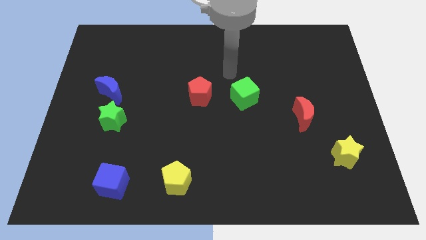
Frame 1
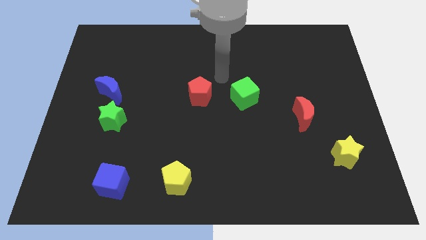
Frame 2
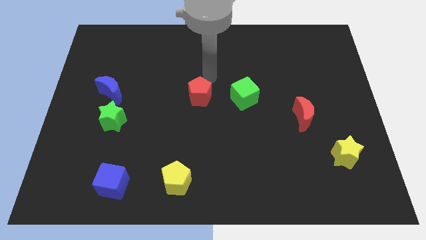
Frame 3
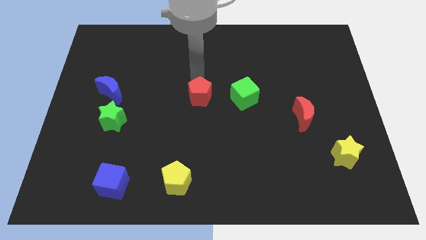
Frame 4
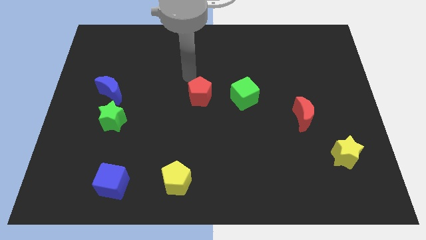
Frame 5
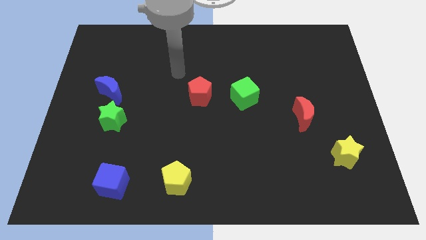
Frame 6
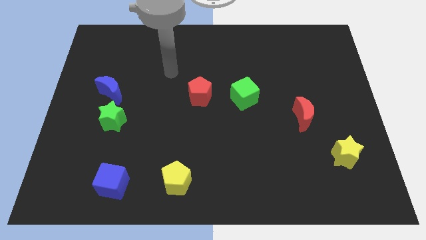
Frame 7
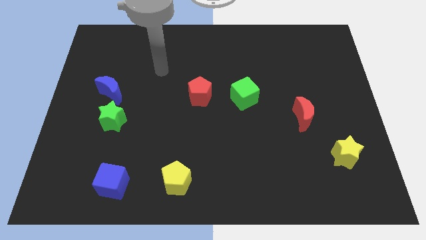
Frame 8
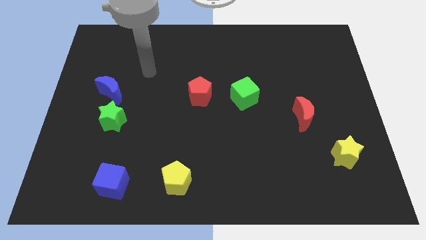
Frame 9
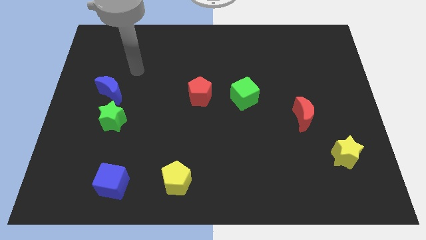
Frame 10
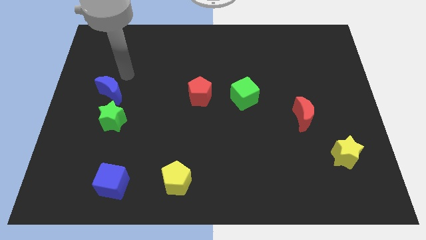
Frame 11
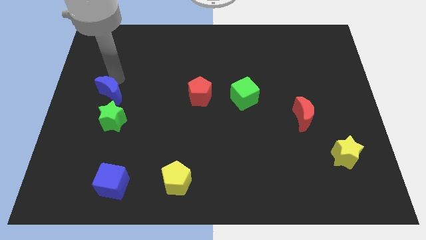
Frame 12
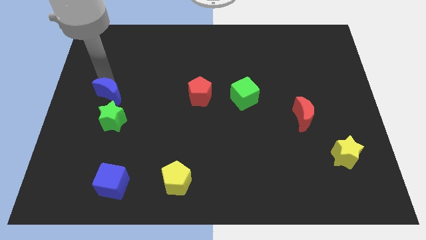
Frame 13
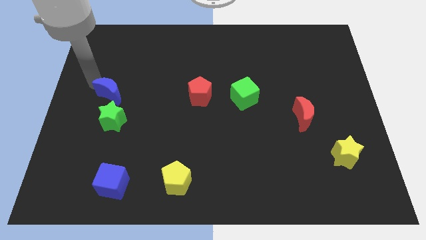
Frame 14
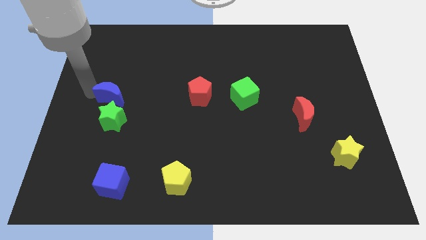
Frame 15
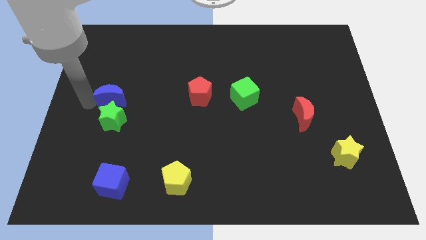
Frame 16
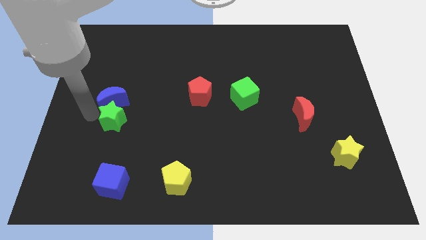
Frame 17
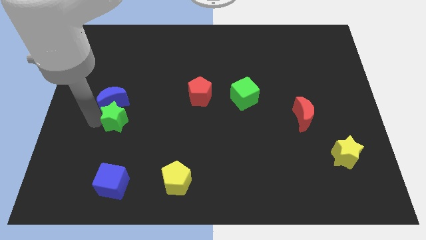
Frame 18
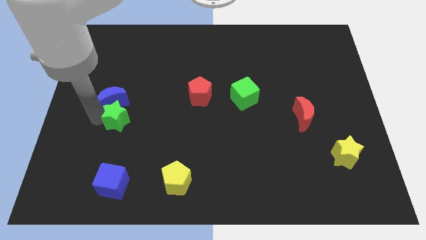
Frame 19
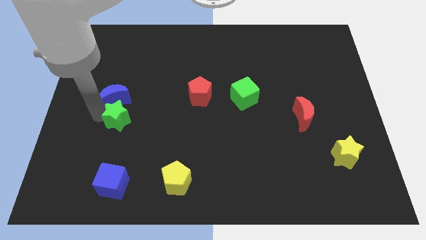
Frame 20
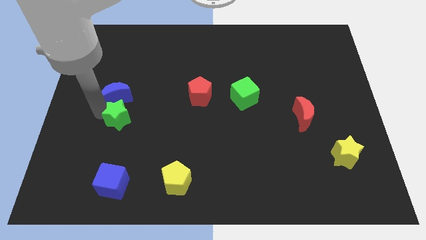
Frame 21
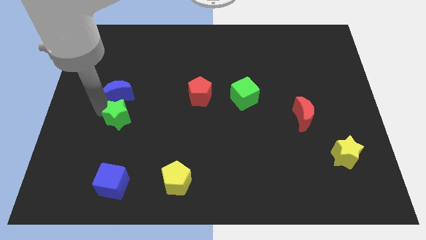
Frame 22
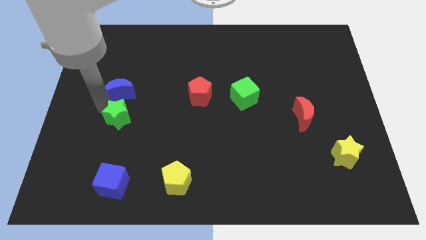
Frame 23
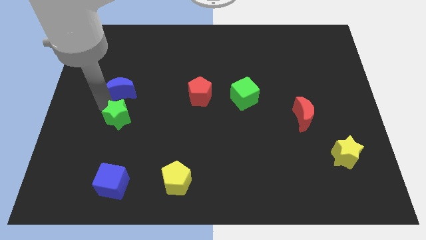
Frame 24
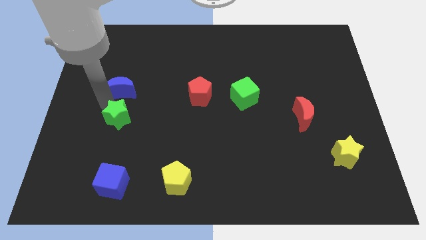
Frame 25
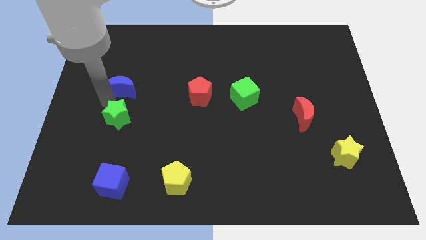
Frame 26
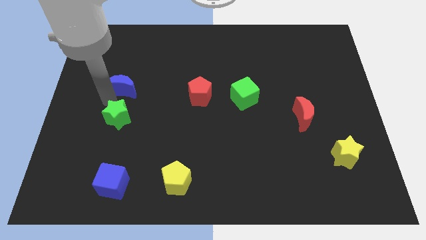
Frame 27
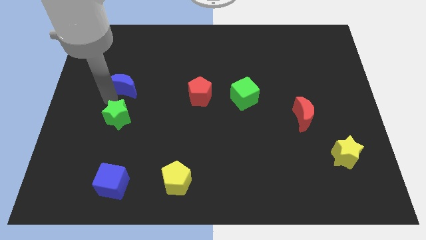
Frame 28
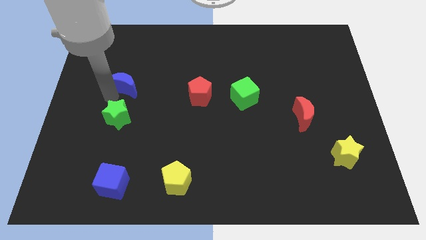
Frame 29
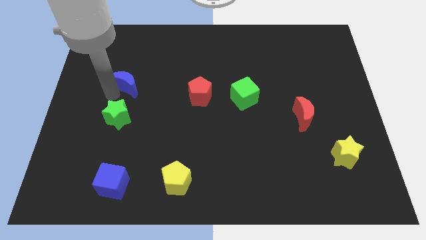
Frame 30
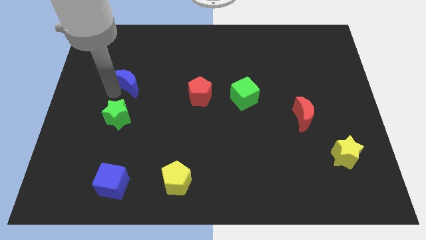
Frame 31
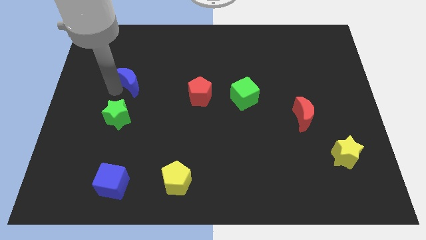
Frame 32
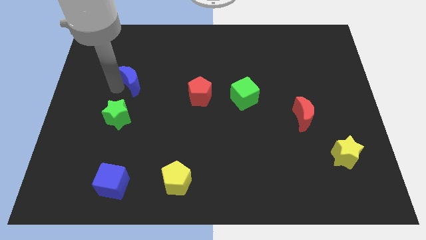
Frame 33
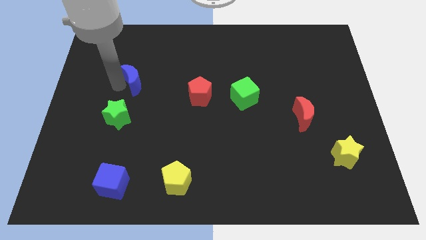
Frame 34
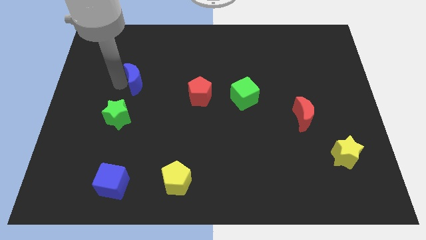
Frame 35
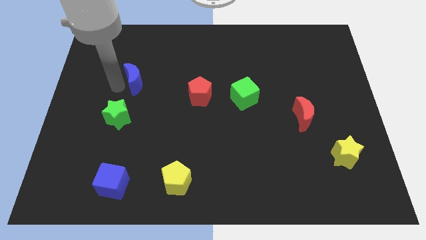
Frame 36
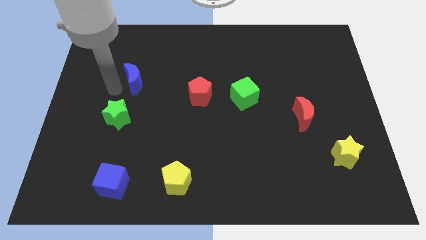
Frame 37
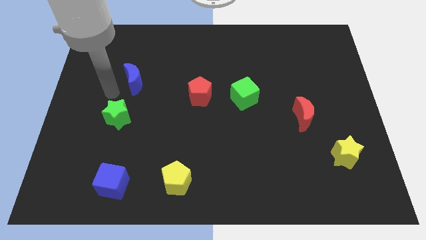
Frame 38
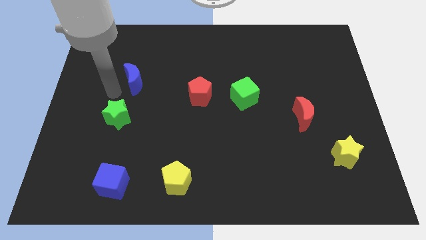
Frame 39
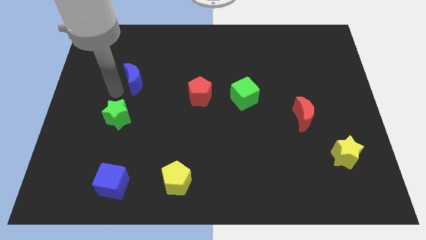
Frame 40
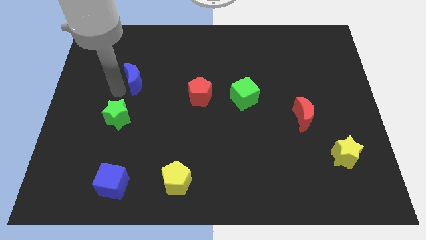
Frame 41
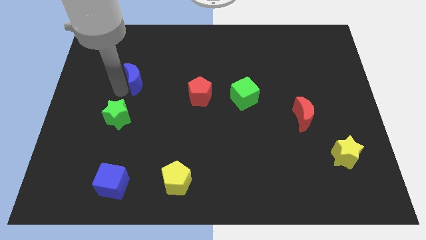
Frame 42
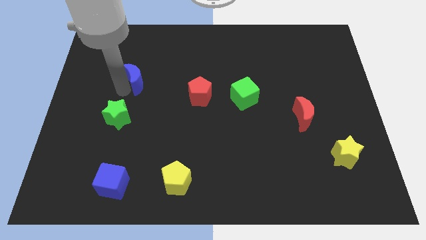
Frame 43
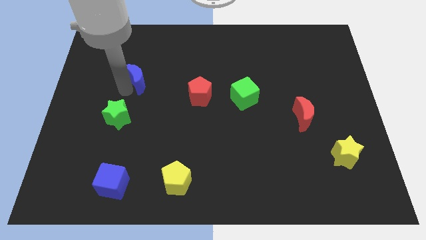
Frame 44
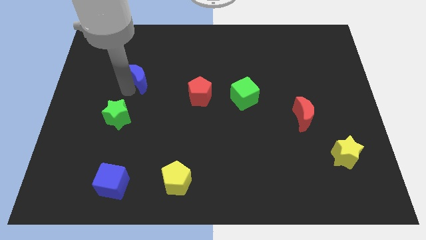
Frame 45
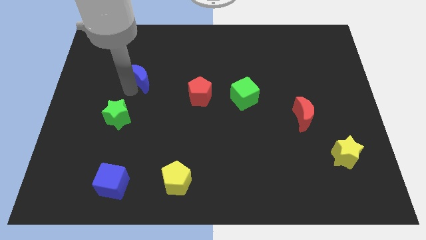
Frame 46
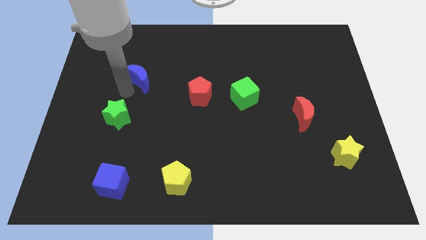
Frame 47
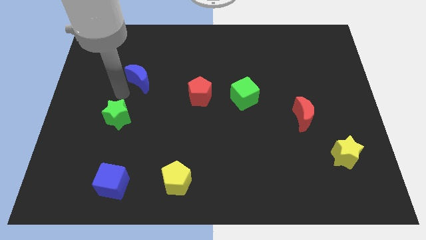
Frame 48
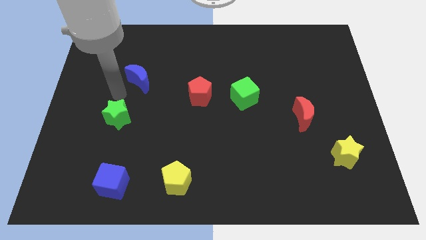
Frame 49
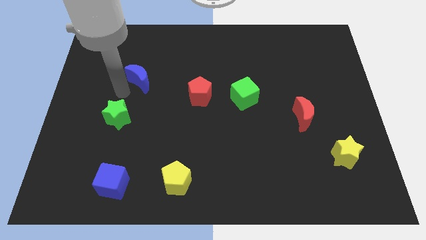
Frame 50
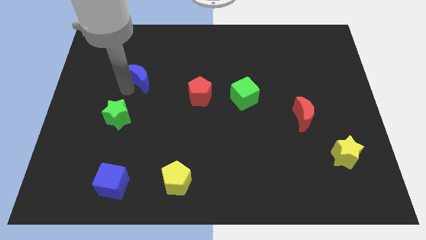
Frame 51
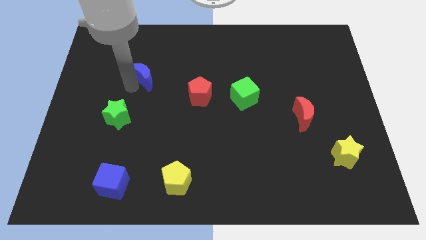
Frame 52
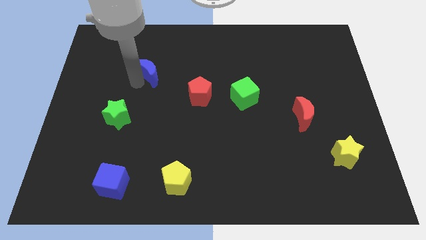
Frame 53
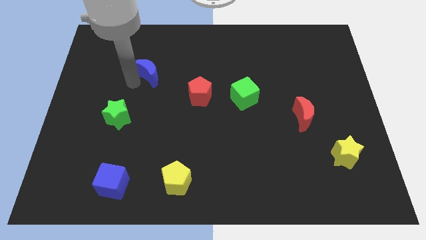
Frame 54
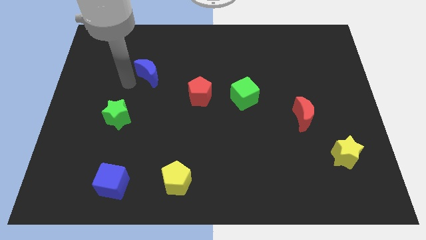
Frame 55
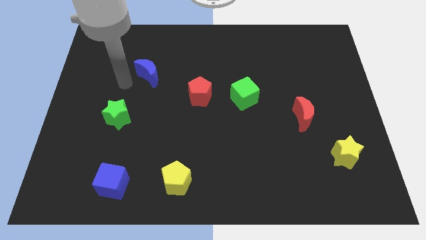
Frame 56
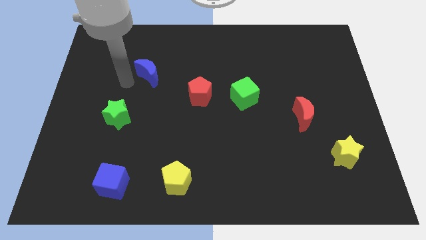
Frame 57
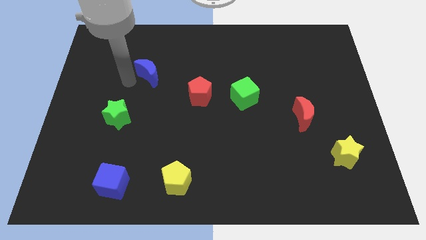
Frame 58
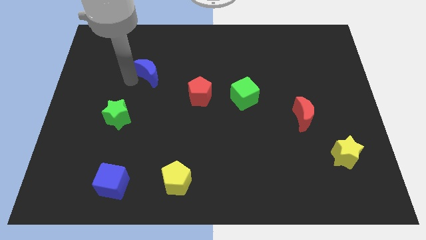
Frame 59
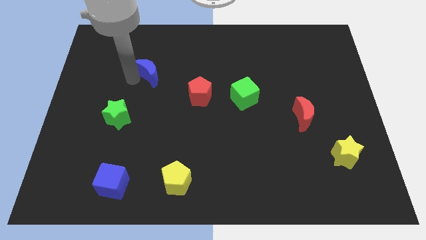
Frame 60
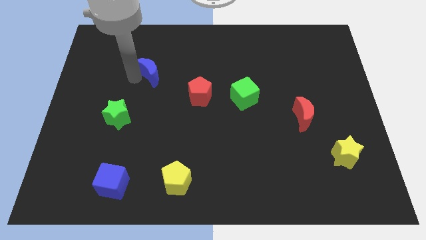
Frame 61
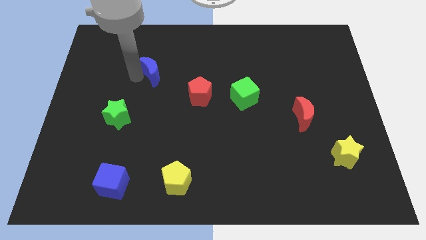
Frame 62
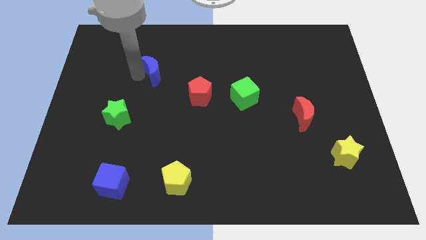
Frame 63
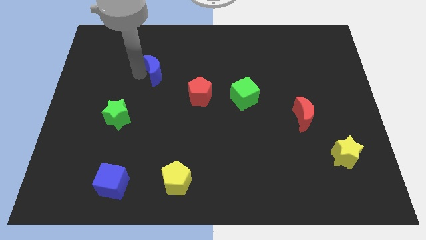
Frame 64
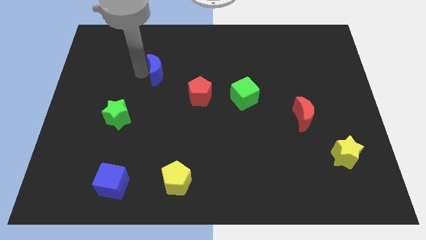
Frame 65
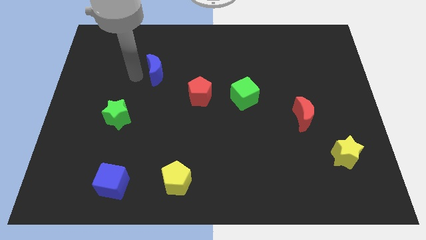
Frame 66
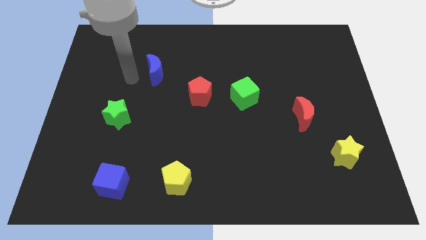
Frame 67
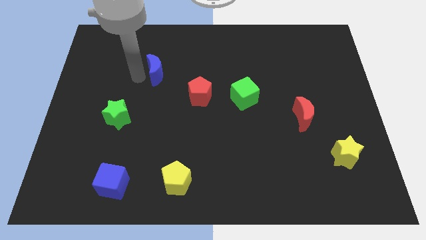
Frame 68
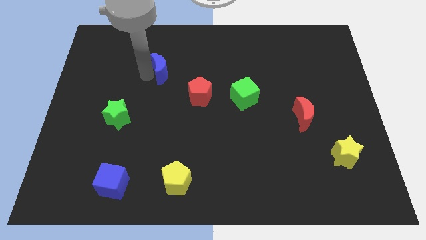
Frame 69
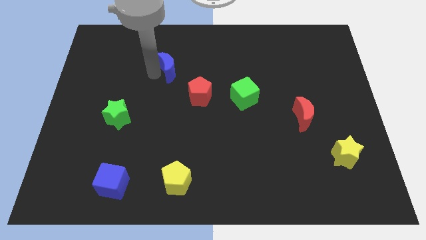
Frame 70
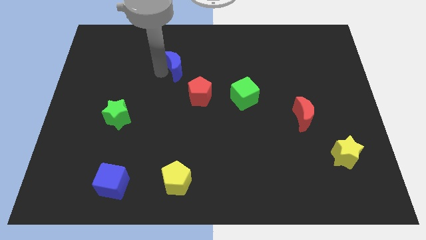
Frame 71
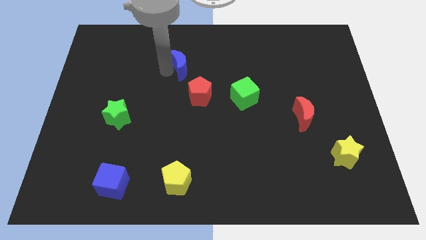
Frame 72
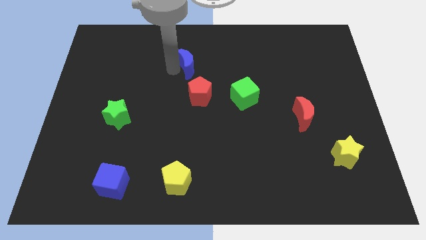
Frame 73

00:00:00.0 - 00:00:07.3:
push the blue moon to the top of the red pentagon
